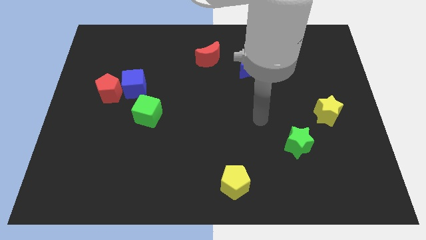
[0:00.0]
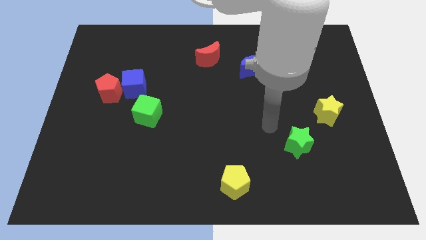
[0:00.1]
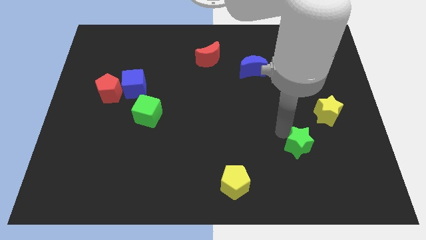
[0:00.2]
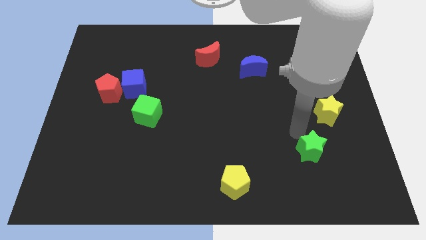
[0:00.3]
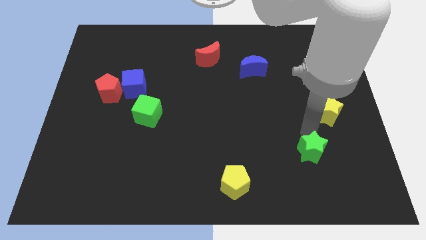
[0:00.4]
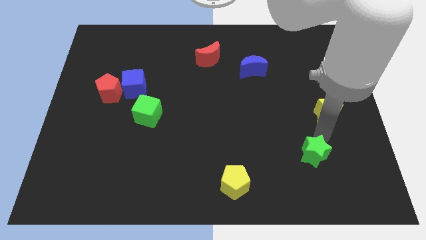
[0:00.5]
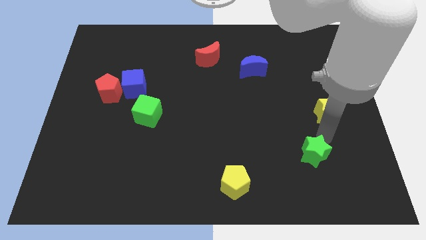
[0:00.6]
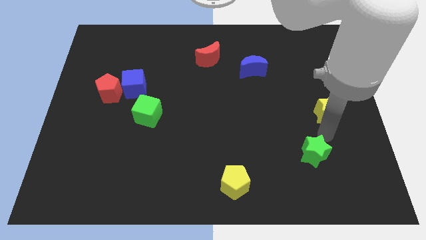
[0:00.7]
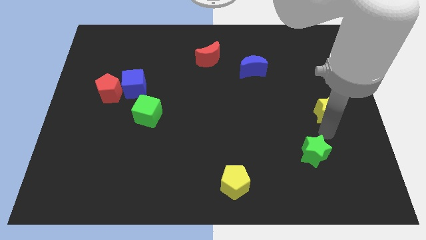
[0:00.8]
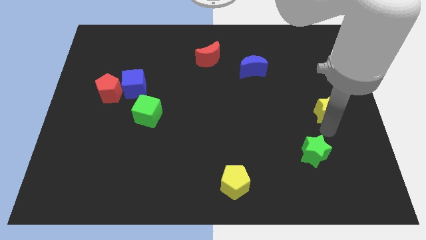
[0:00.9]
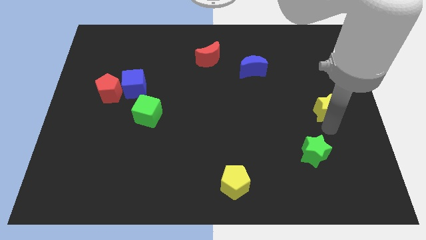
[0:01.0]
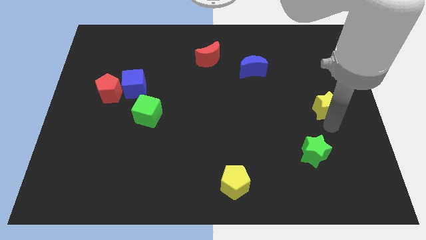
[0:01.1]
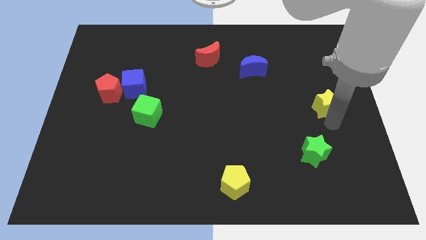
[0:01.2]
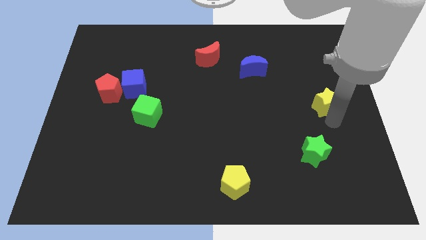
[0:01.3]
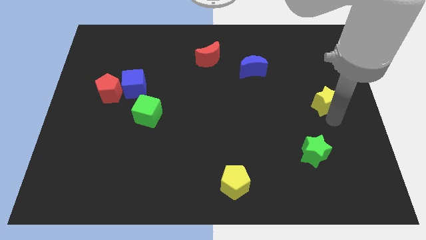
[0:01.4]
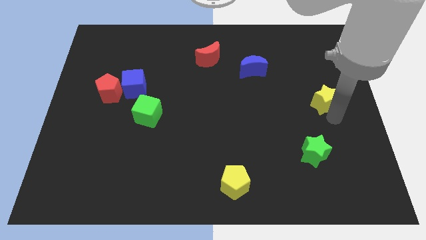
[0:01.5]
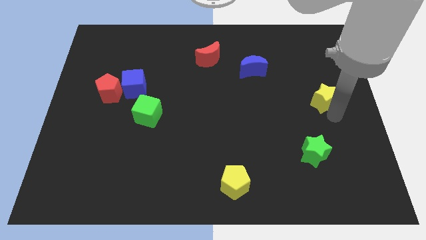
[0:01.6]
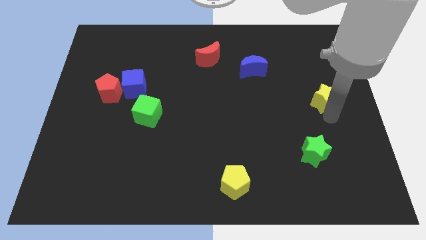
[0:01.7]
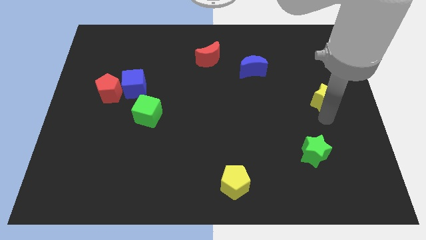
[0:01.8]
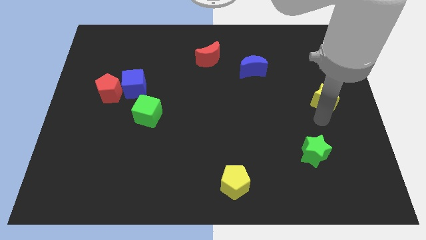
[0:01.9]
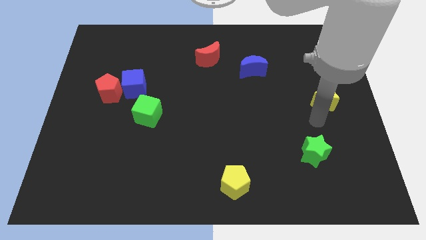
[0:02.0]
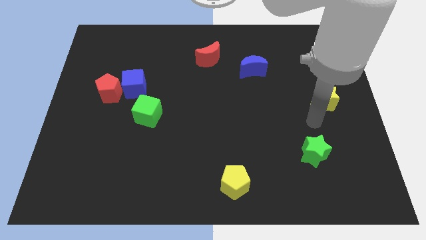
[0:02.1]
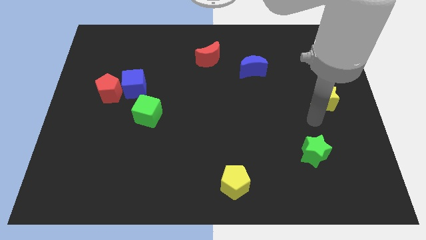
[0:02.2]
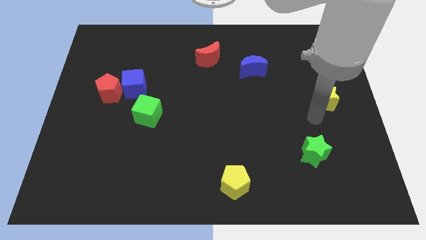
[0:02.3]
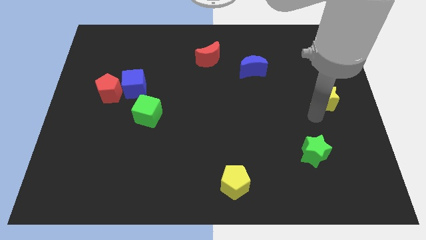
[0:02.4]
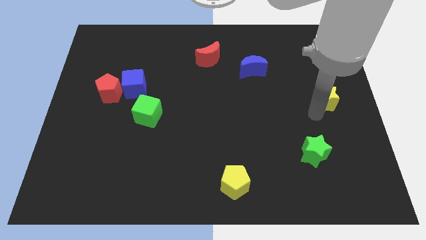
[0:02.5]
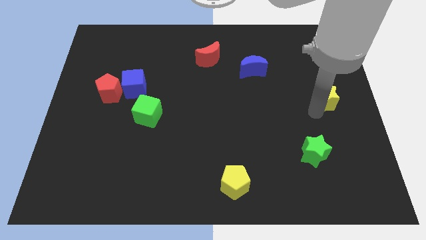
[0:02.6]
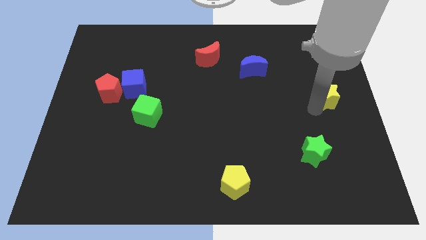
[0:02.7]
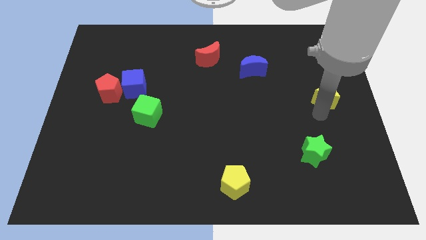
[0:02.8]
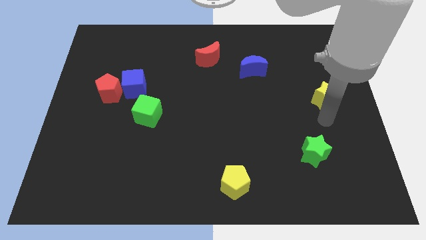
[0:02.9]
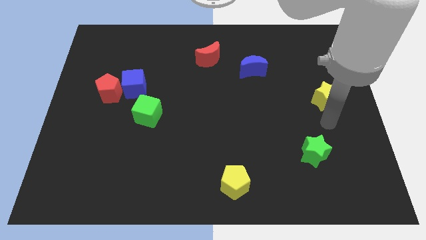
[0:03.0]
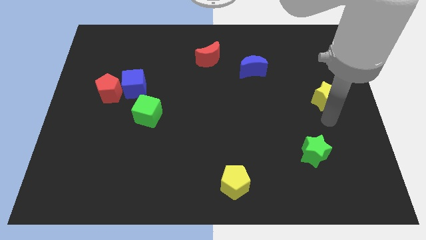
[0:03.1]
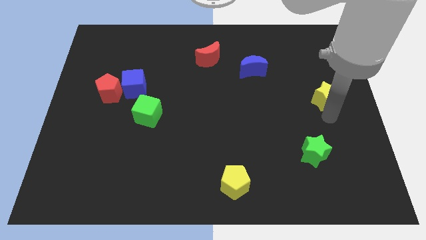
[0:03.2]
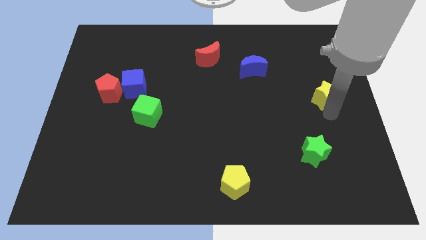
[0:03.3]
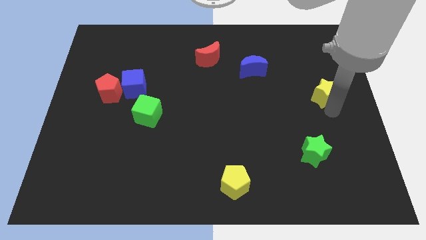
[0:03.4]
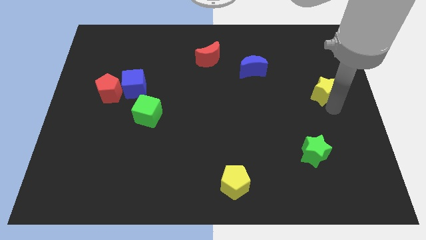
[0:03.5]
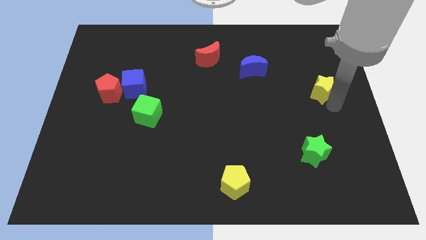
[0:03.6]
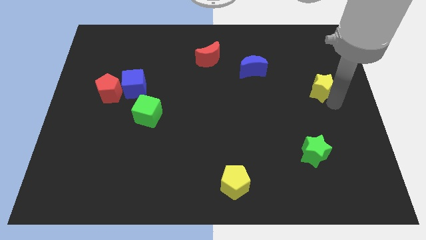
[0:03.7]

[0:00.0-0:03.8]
push the yellow star upwards a little

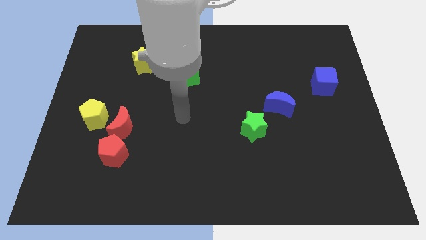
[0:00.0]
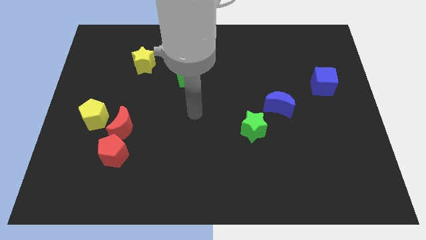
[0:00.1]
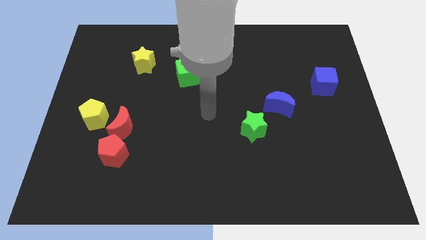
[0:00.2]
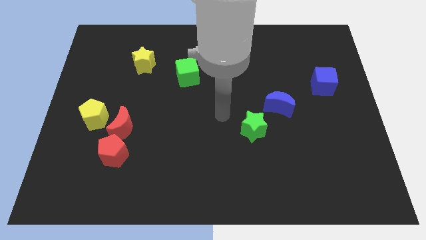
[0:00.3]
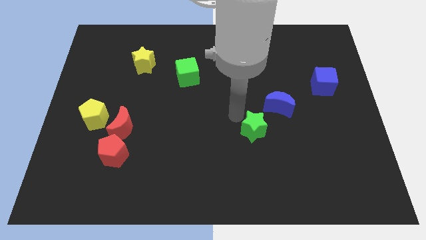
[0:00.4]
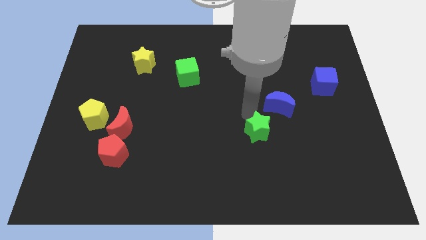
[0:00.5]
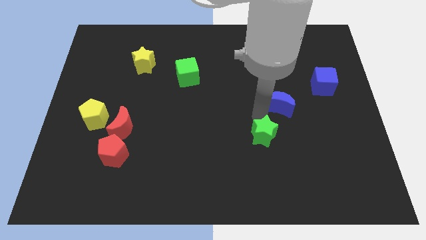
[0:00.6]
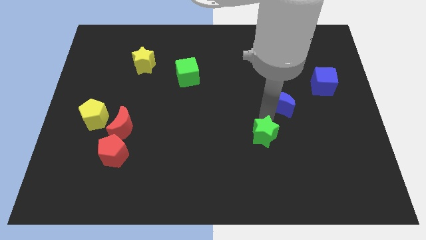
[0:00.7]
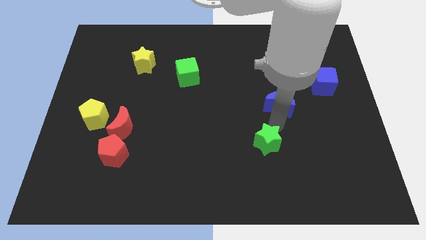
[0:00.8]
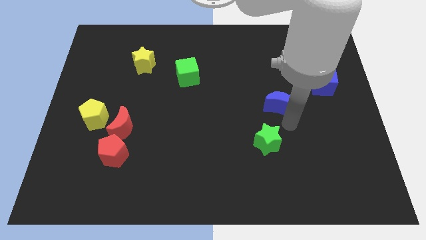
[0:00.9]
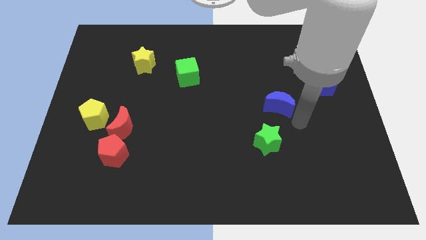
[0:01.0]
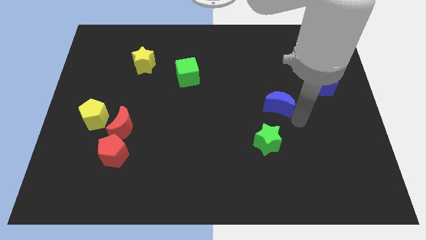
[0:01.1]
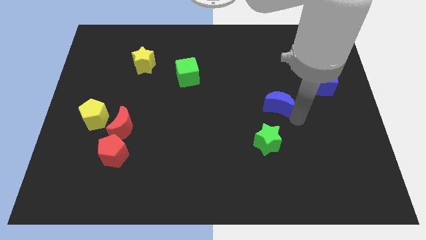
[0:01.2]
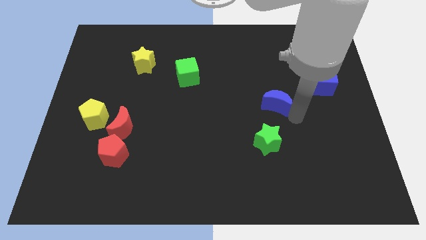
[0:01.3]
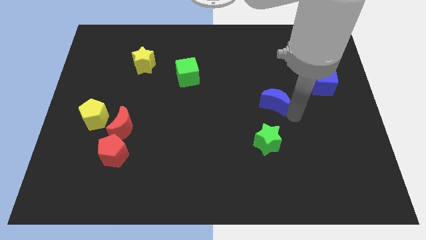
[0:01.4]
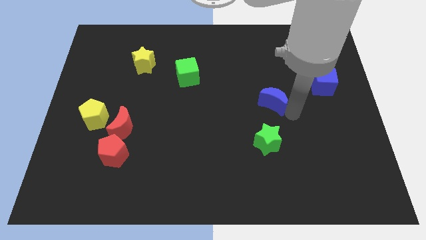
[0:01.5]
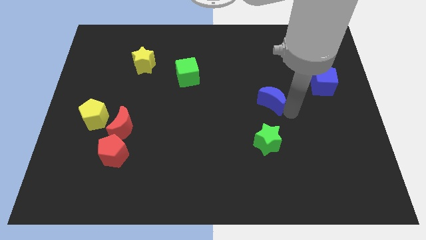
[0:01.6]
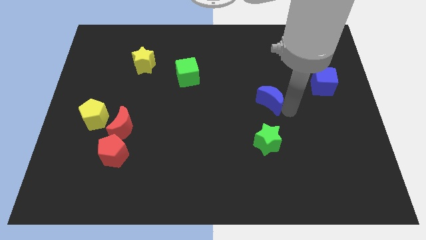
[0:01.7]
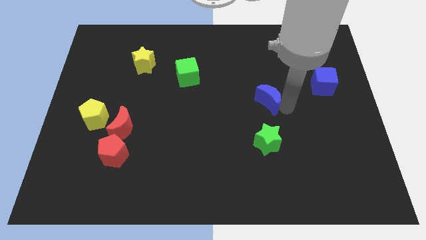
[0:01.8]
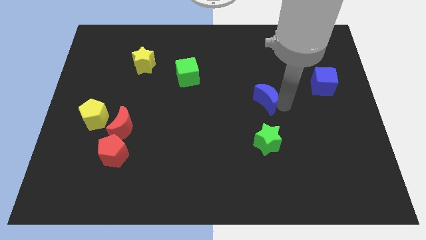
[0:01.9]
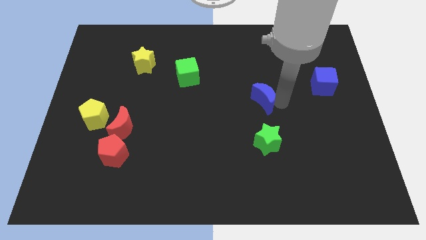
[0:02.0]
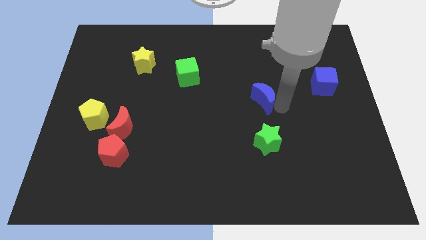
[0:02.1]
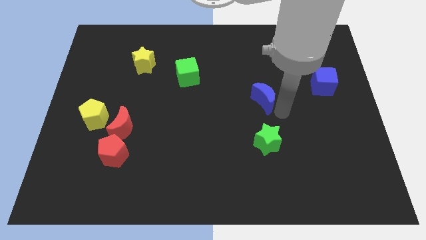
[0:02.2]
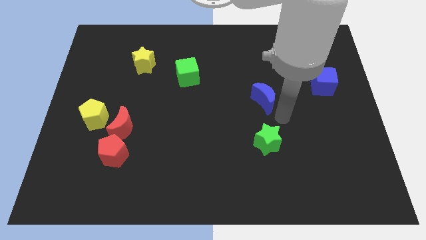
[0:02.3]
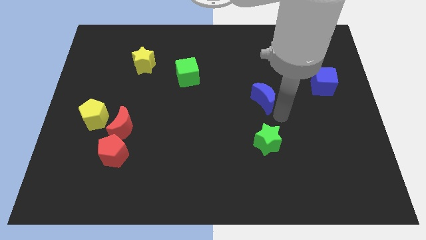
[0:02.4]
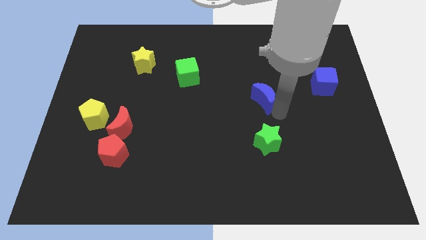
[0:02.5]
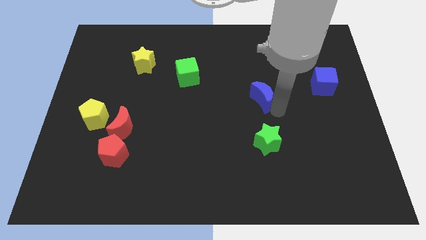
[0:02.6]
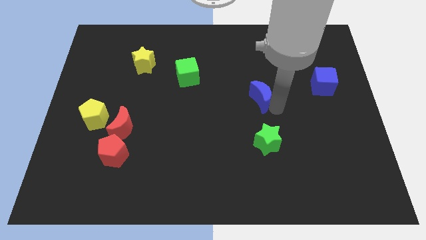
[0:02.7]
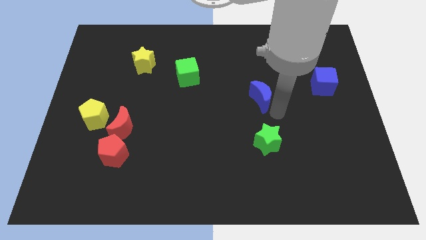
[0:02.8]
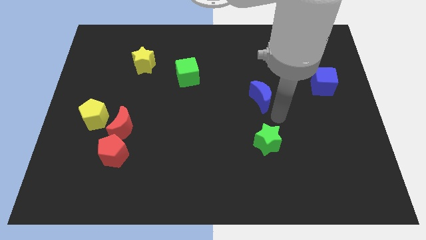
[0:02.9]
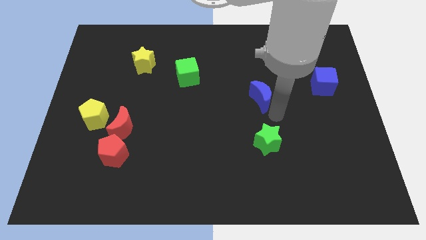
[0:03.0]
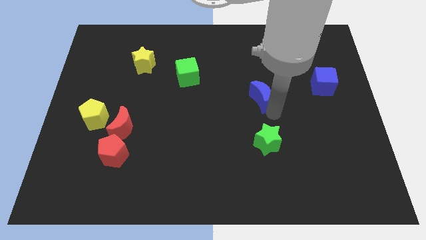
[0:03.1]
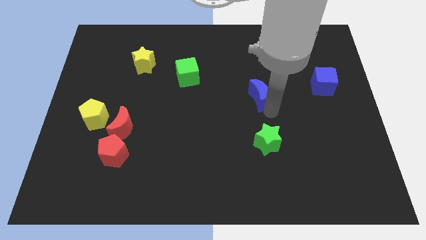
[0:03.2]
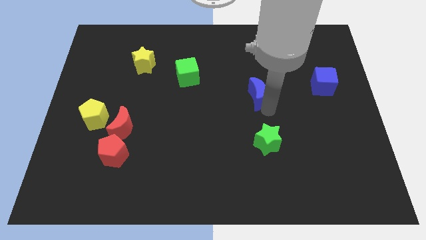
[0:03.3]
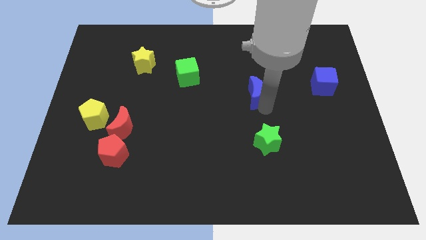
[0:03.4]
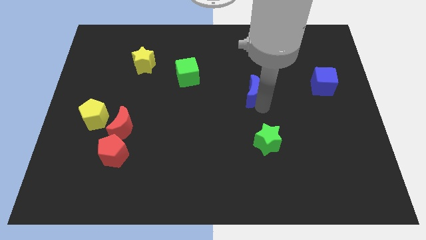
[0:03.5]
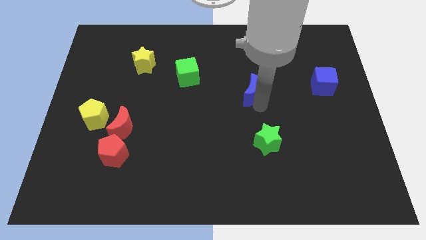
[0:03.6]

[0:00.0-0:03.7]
move the blue moon slightly up and then left

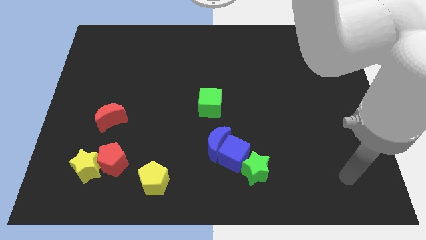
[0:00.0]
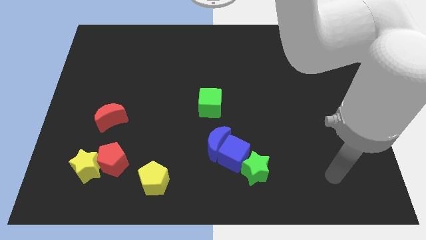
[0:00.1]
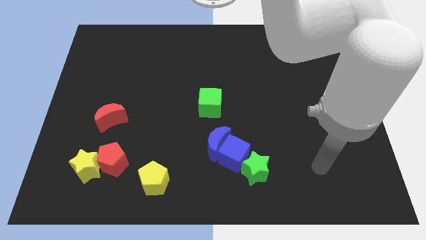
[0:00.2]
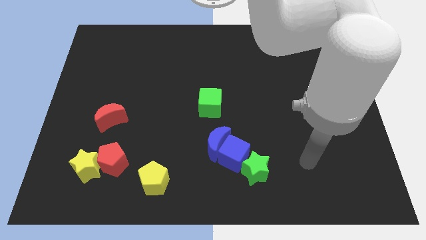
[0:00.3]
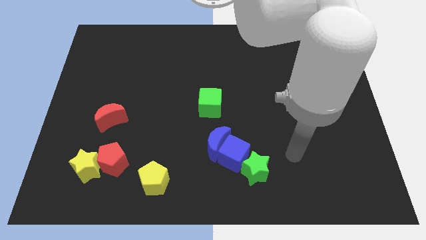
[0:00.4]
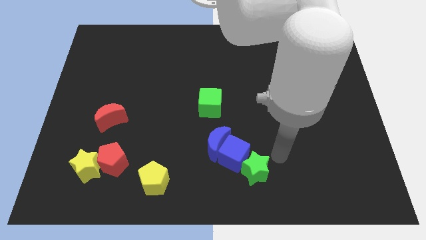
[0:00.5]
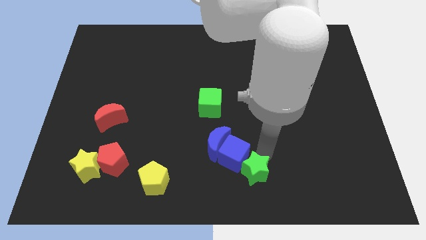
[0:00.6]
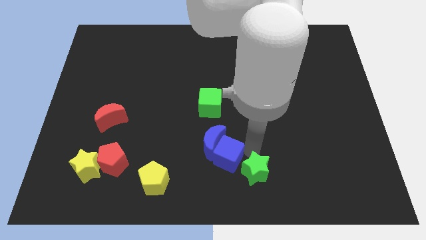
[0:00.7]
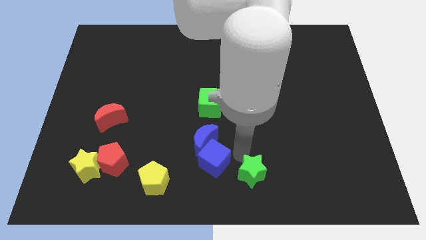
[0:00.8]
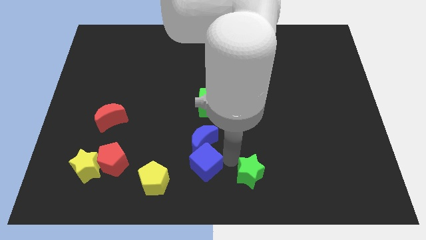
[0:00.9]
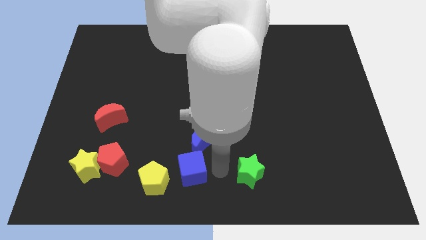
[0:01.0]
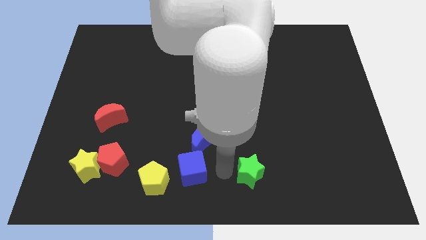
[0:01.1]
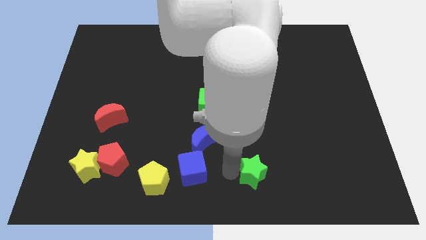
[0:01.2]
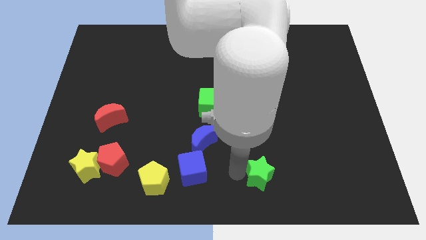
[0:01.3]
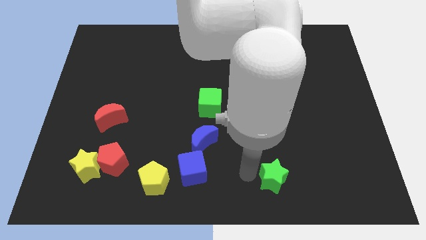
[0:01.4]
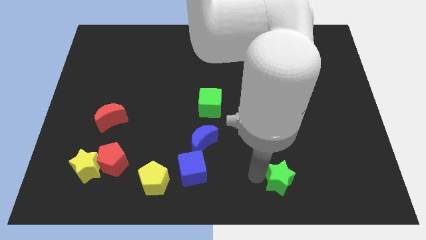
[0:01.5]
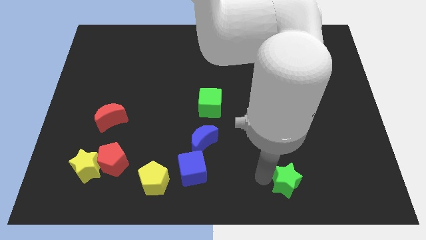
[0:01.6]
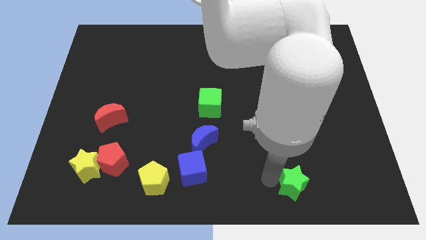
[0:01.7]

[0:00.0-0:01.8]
move the green star to the right somewhat
